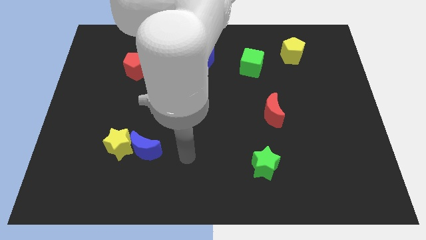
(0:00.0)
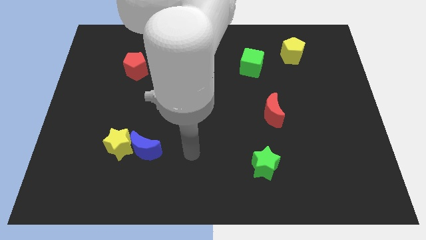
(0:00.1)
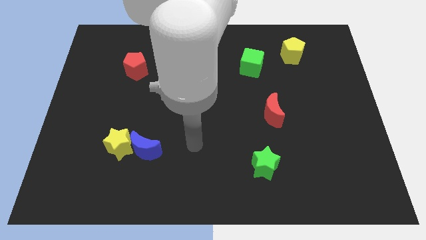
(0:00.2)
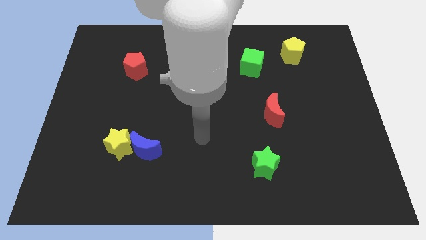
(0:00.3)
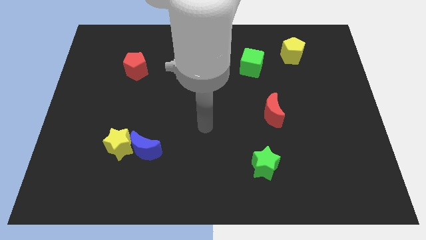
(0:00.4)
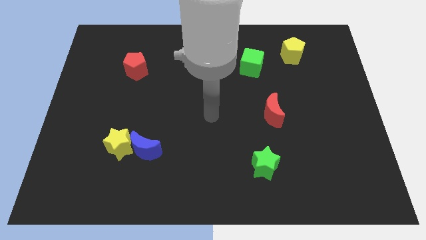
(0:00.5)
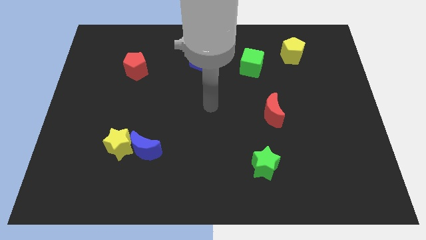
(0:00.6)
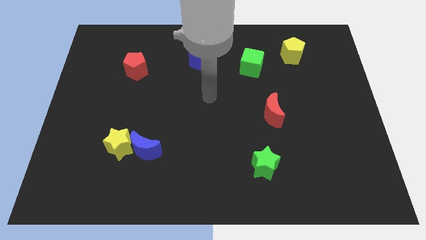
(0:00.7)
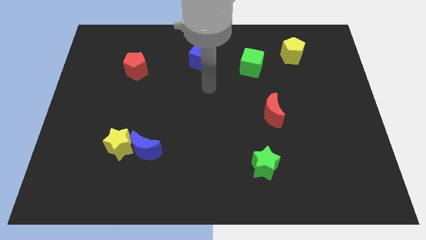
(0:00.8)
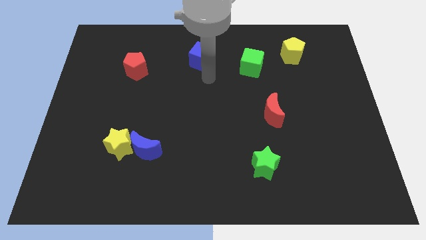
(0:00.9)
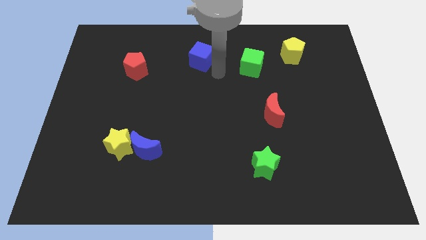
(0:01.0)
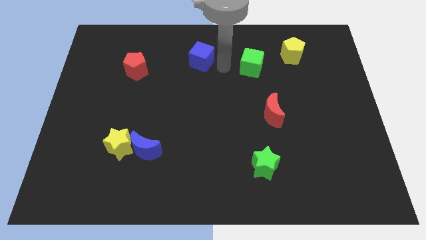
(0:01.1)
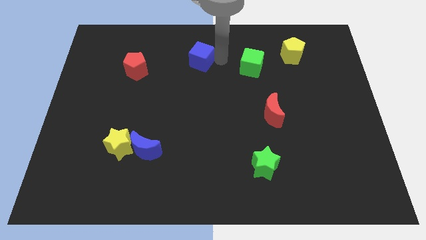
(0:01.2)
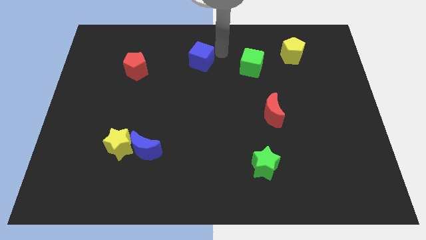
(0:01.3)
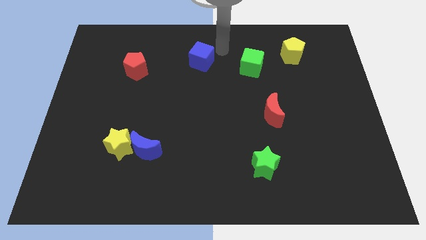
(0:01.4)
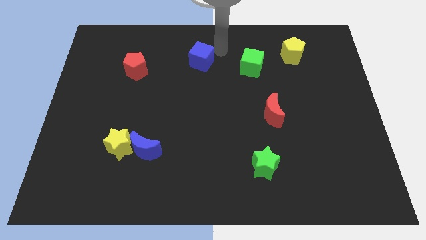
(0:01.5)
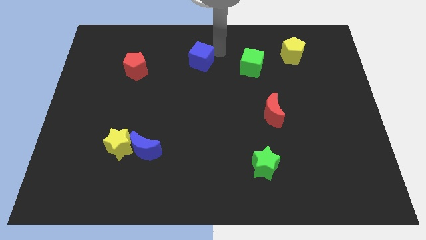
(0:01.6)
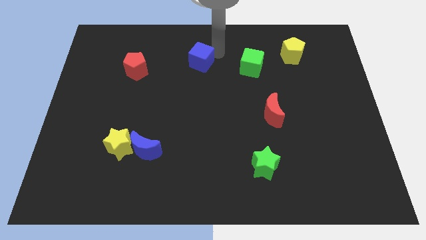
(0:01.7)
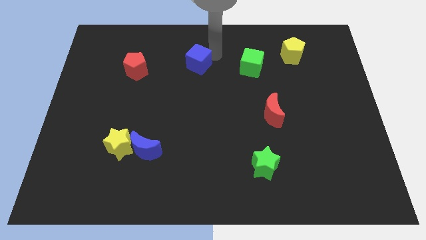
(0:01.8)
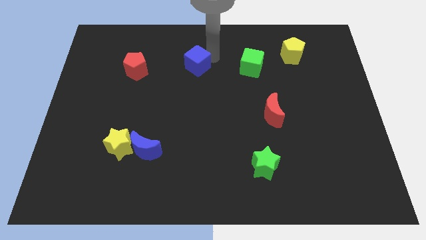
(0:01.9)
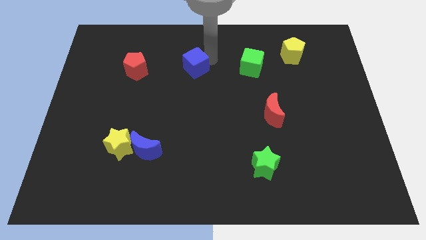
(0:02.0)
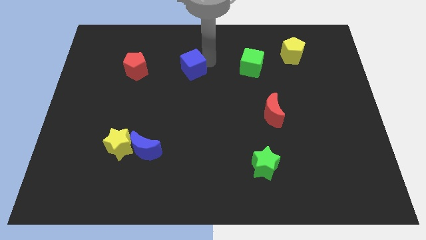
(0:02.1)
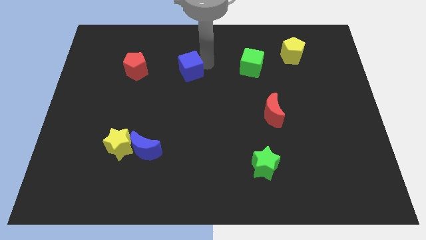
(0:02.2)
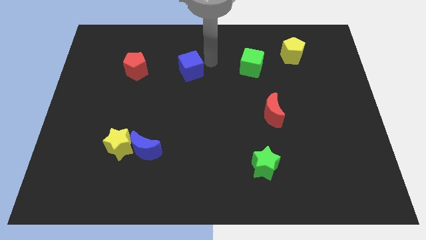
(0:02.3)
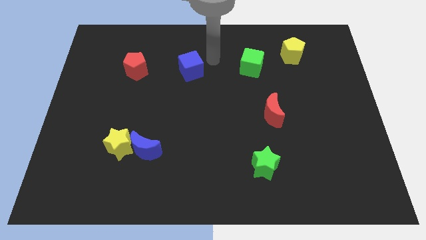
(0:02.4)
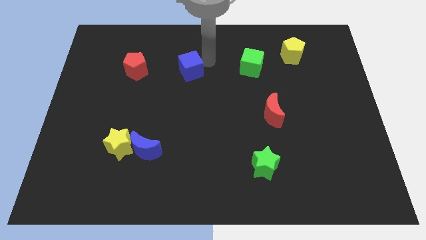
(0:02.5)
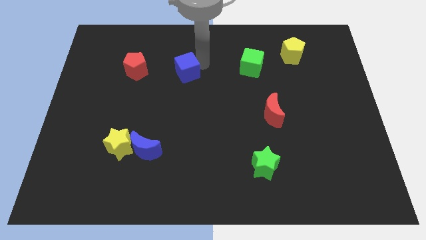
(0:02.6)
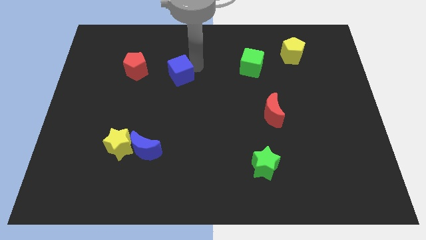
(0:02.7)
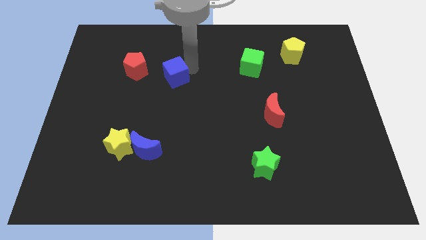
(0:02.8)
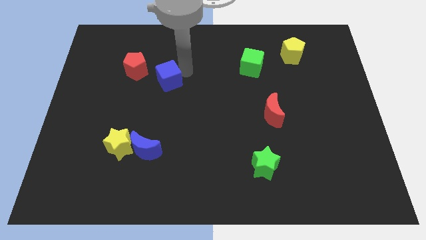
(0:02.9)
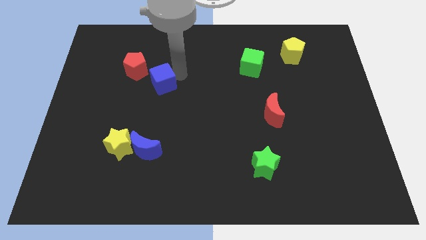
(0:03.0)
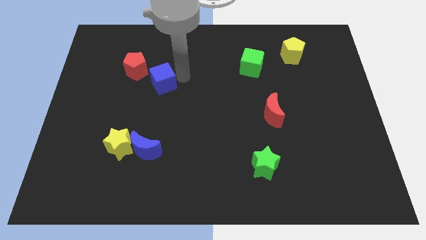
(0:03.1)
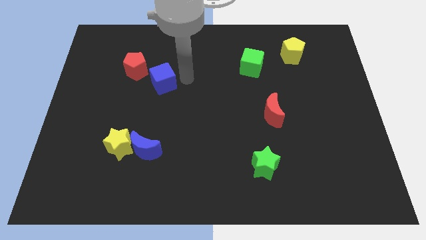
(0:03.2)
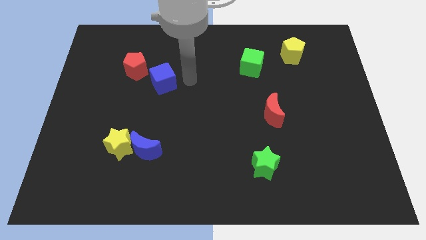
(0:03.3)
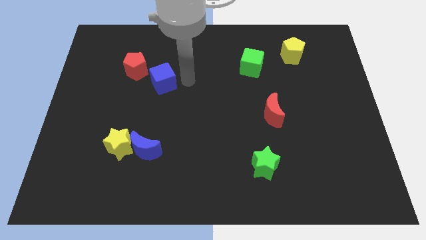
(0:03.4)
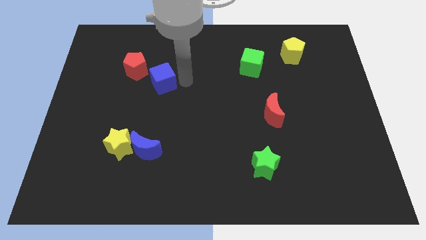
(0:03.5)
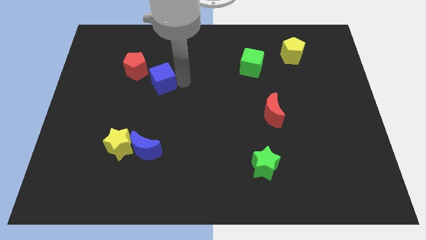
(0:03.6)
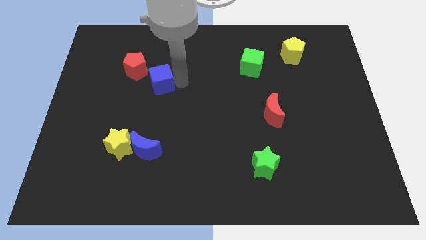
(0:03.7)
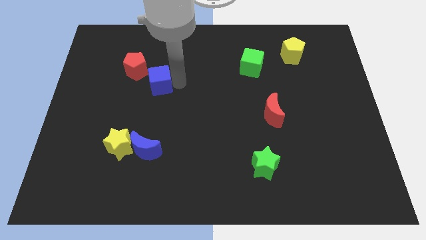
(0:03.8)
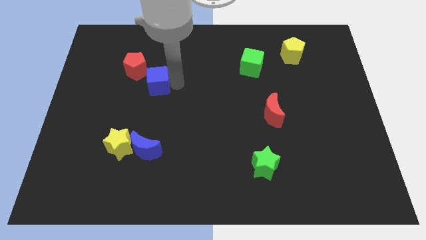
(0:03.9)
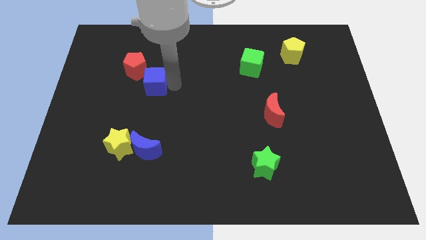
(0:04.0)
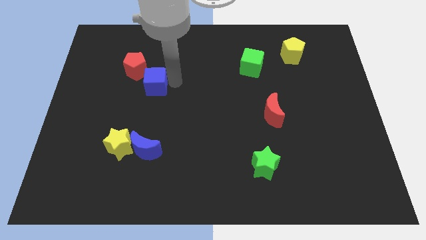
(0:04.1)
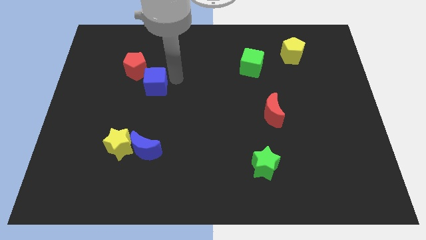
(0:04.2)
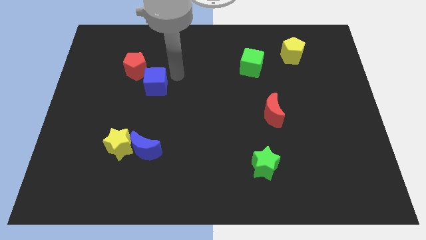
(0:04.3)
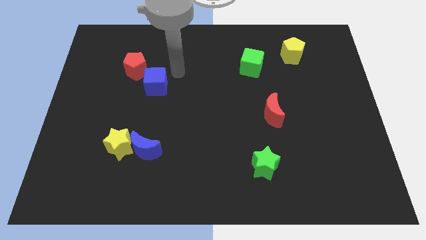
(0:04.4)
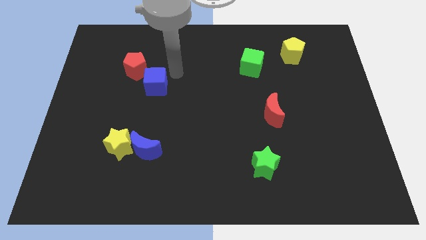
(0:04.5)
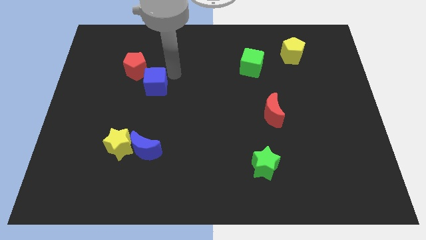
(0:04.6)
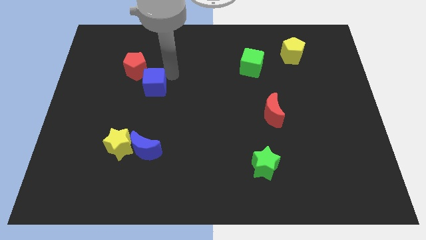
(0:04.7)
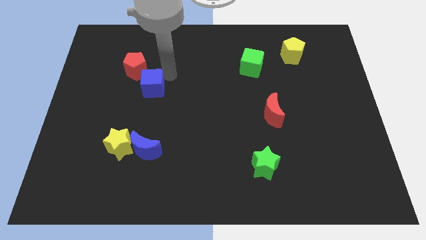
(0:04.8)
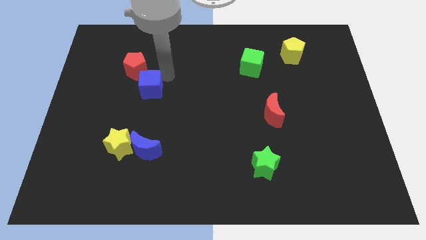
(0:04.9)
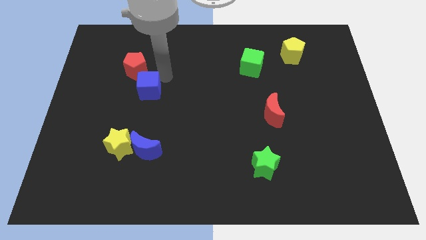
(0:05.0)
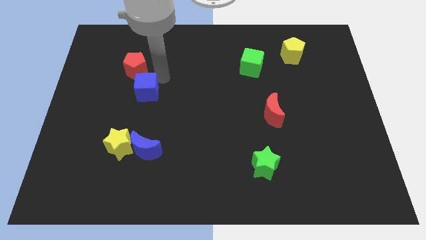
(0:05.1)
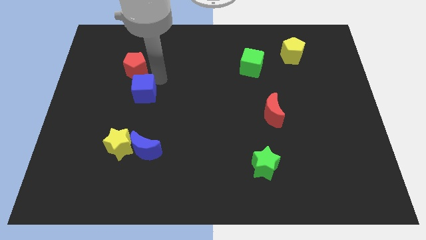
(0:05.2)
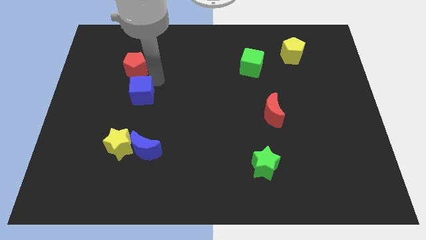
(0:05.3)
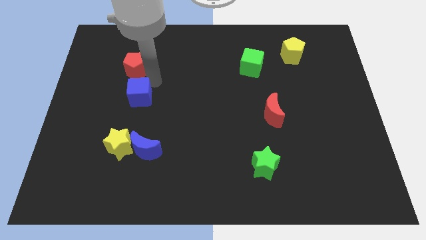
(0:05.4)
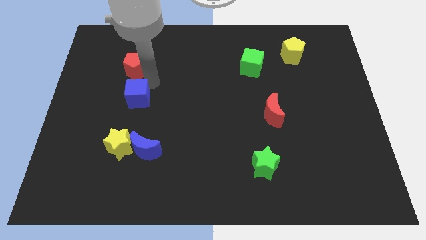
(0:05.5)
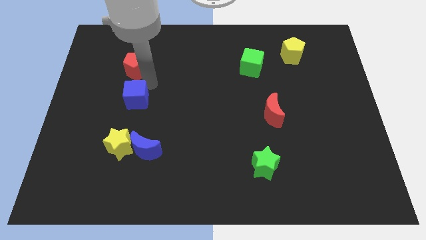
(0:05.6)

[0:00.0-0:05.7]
move the blue cube down and left

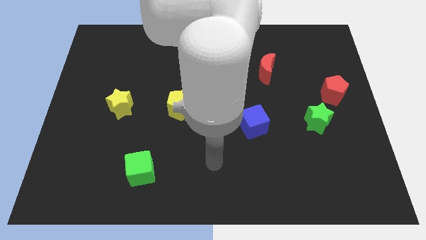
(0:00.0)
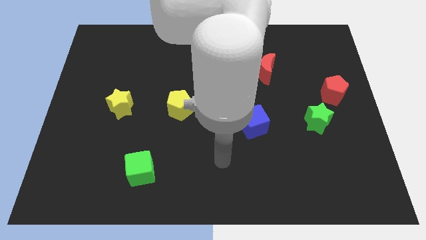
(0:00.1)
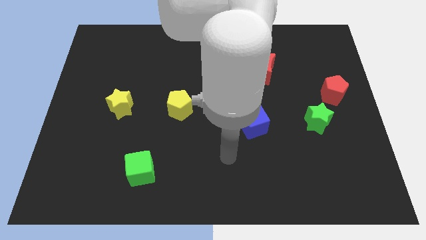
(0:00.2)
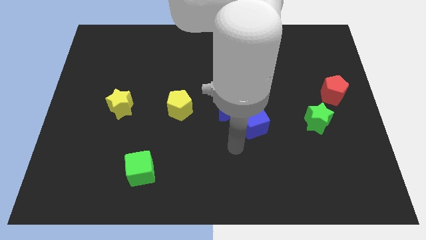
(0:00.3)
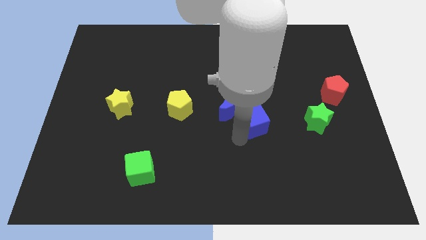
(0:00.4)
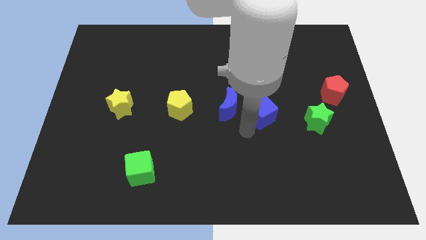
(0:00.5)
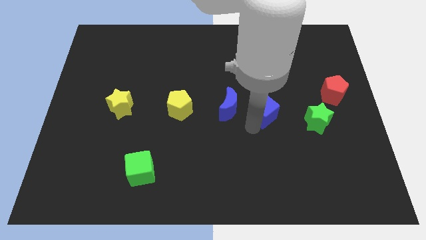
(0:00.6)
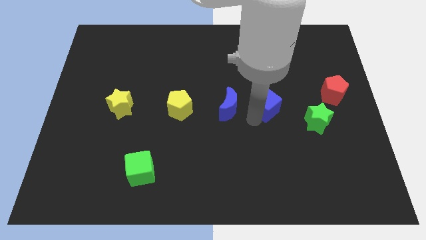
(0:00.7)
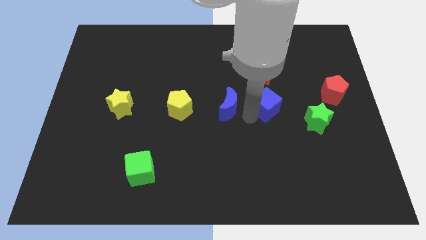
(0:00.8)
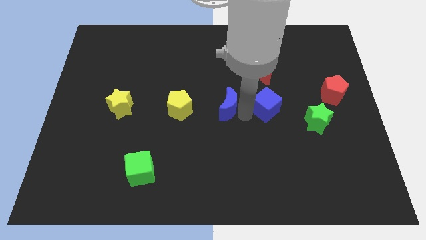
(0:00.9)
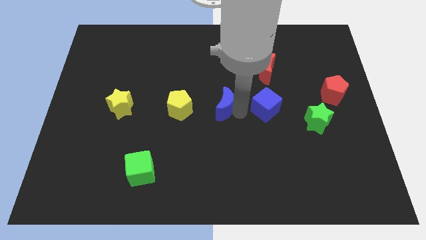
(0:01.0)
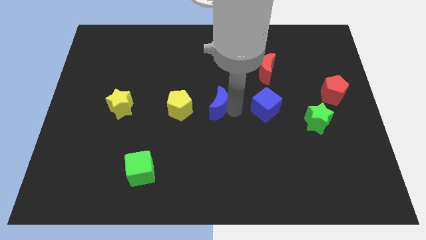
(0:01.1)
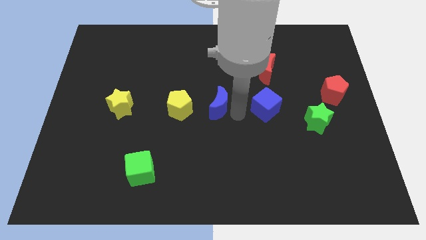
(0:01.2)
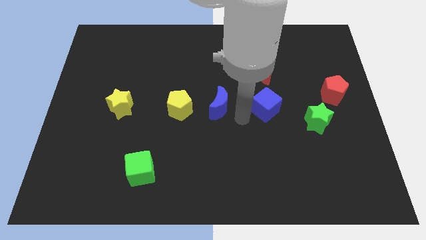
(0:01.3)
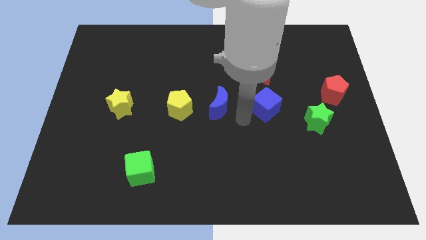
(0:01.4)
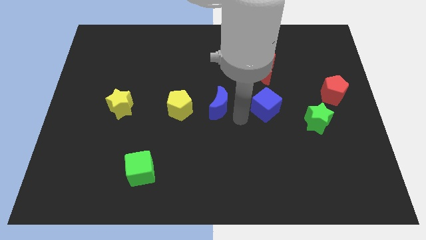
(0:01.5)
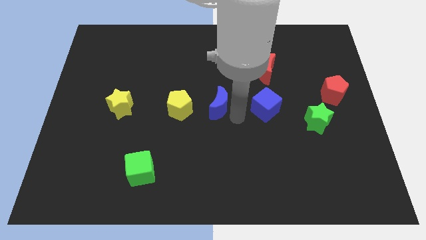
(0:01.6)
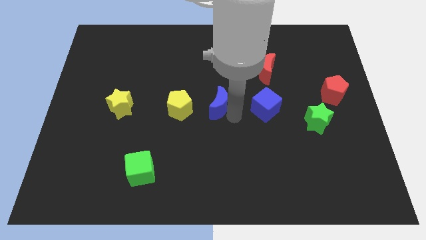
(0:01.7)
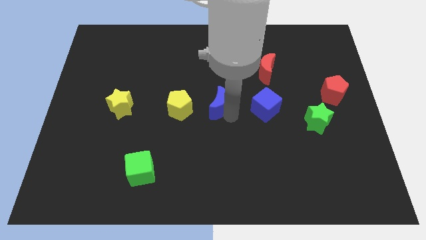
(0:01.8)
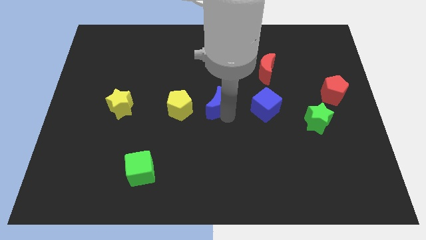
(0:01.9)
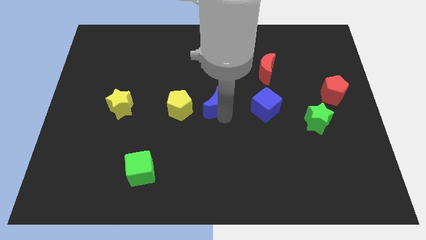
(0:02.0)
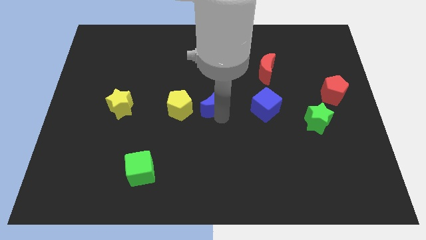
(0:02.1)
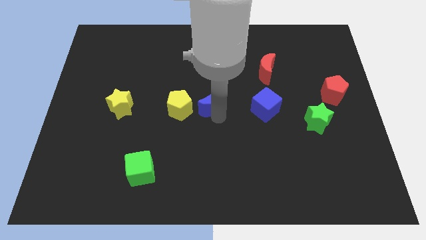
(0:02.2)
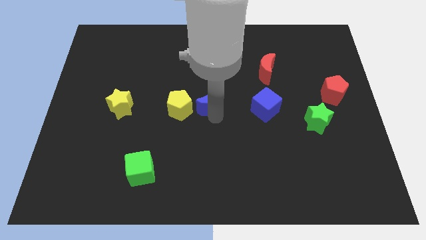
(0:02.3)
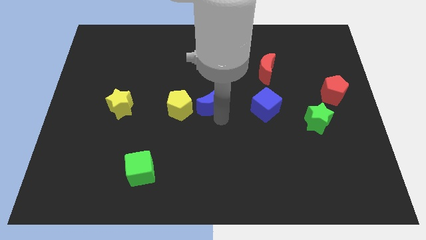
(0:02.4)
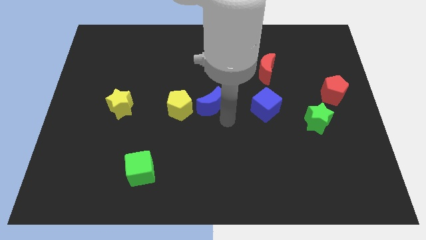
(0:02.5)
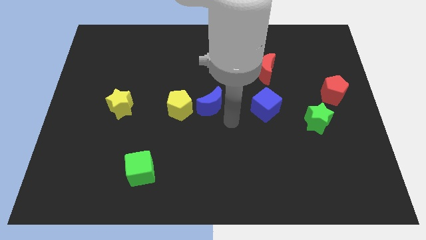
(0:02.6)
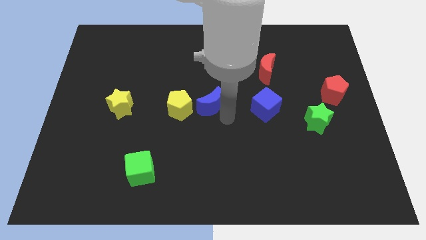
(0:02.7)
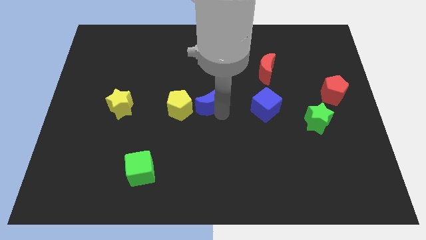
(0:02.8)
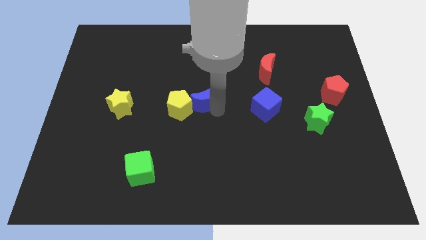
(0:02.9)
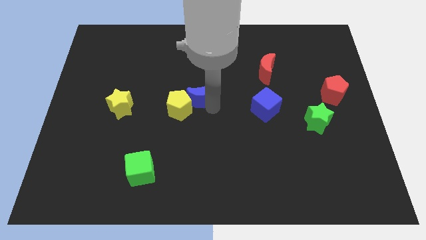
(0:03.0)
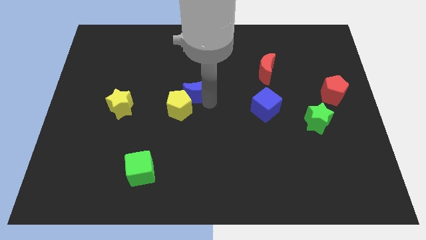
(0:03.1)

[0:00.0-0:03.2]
slightly push the blue moon to the left
